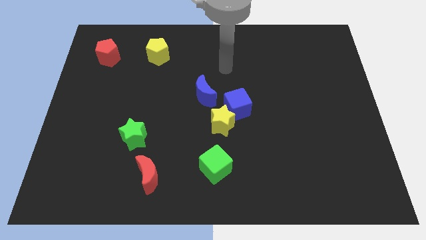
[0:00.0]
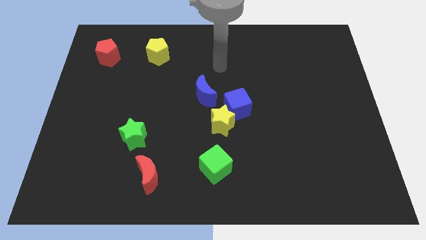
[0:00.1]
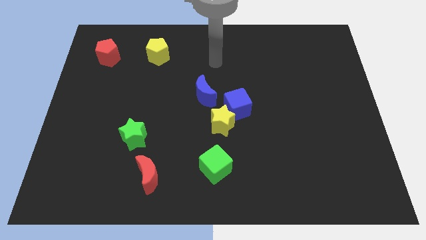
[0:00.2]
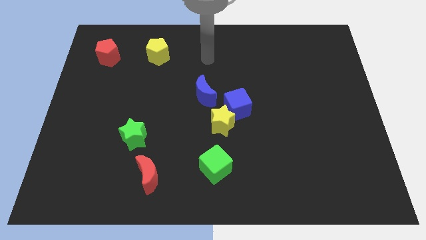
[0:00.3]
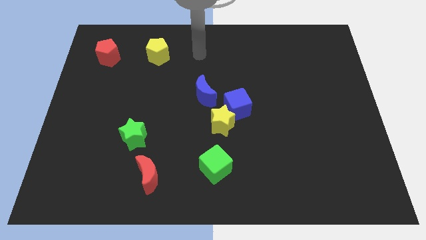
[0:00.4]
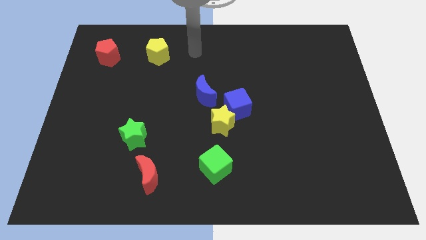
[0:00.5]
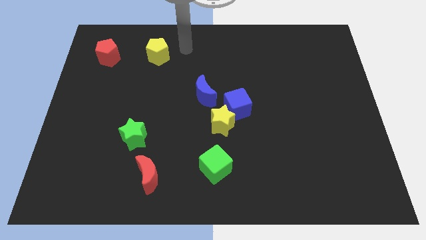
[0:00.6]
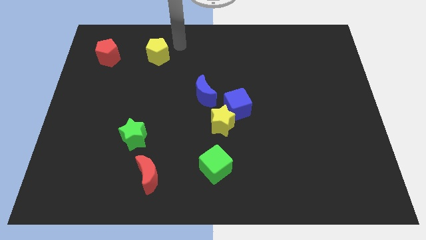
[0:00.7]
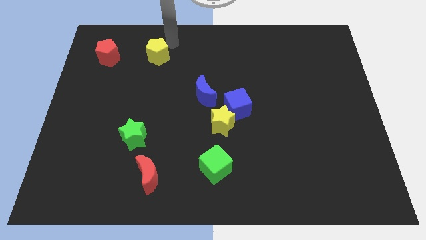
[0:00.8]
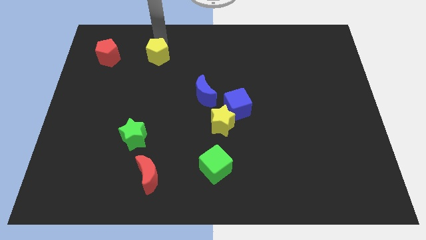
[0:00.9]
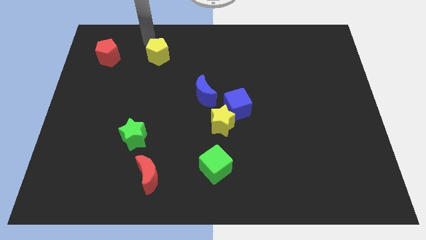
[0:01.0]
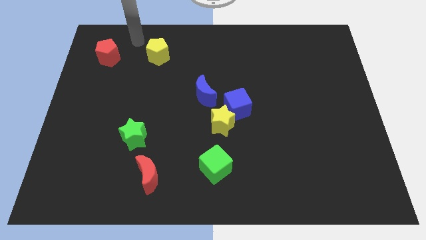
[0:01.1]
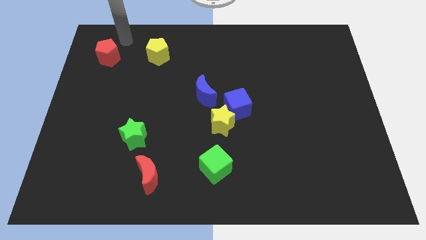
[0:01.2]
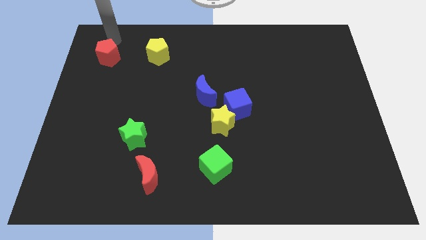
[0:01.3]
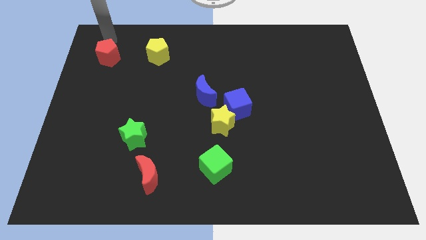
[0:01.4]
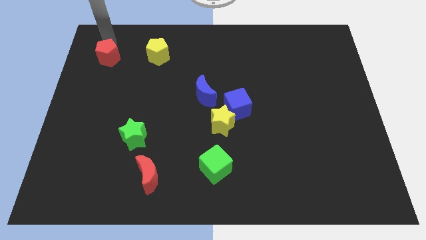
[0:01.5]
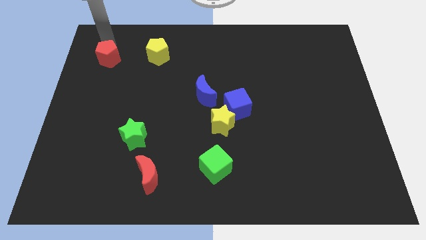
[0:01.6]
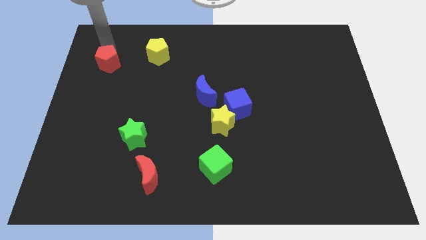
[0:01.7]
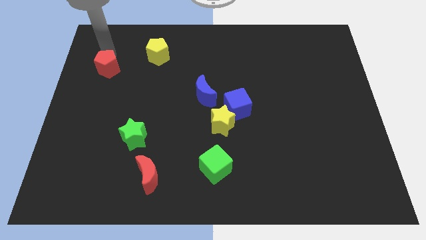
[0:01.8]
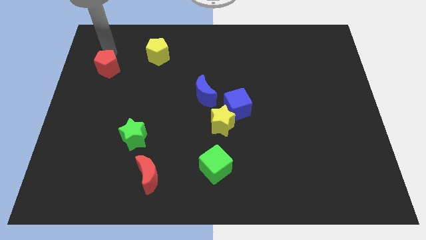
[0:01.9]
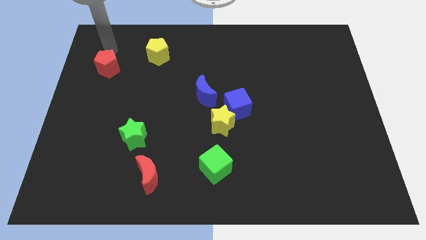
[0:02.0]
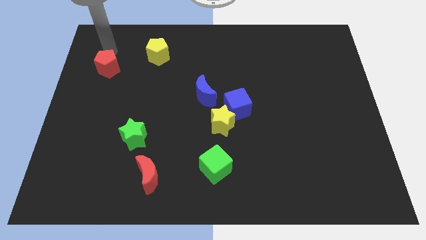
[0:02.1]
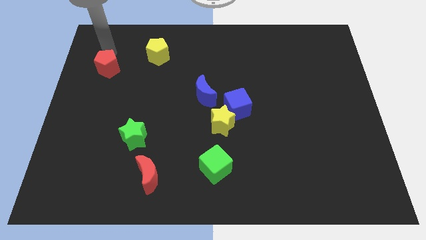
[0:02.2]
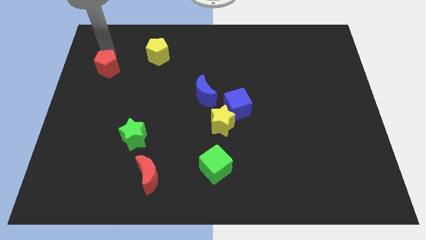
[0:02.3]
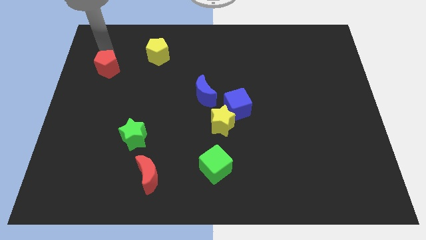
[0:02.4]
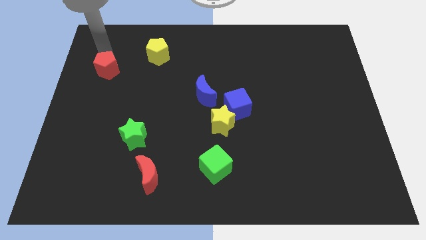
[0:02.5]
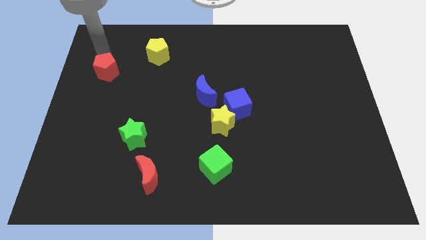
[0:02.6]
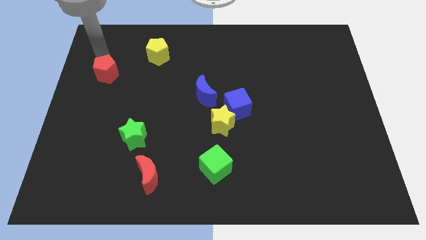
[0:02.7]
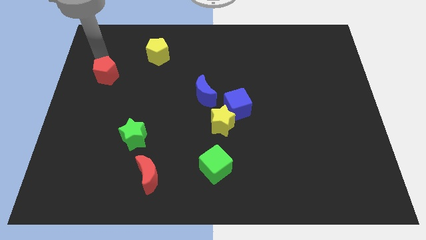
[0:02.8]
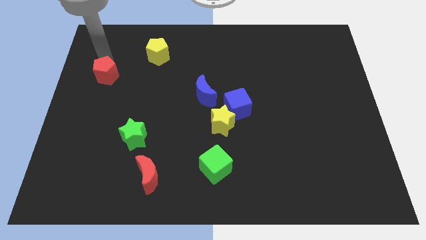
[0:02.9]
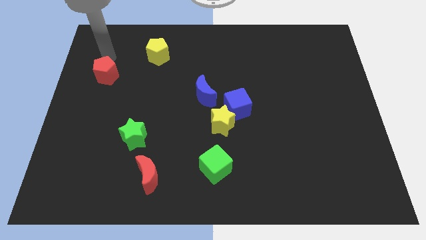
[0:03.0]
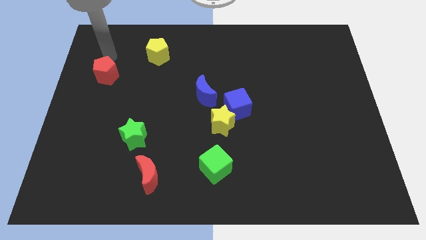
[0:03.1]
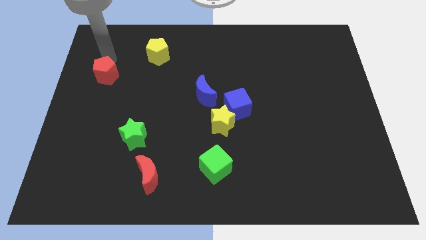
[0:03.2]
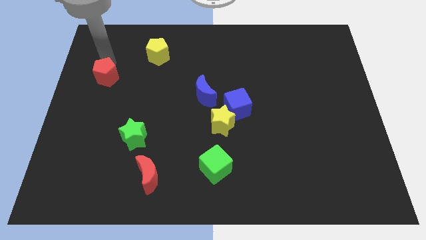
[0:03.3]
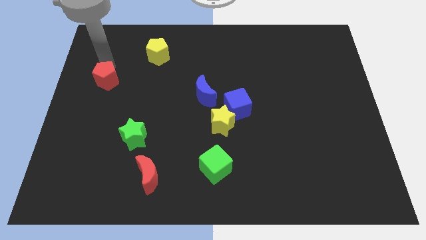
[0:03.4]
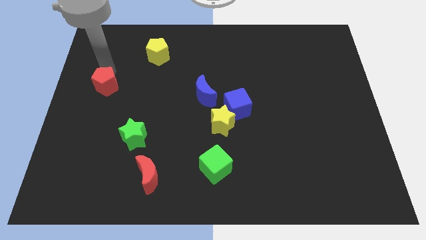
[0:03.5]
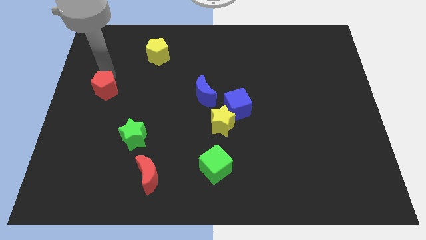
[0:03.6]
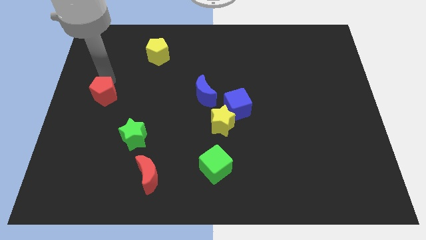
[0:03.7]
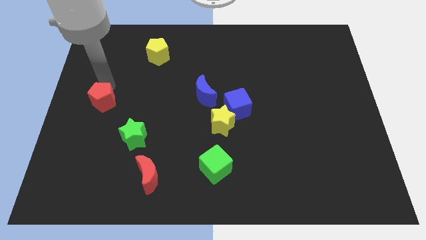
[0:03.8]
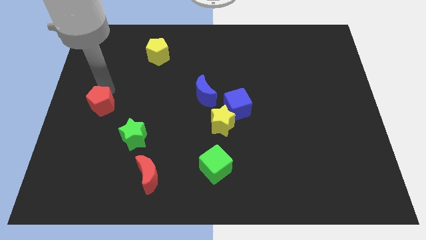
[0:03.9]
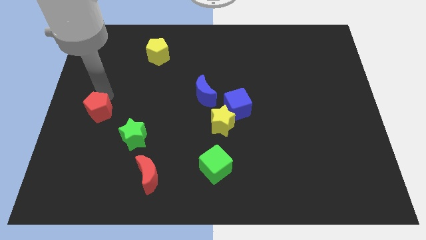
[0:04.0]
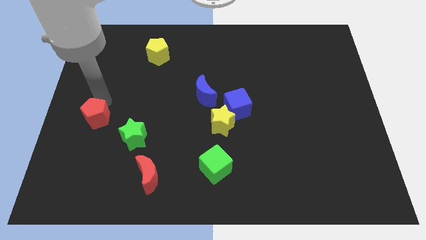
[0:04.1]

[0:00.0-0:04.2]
slide the red pentagon downwards

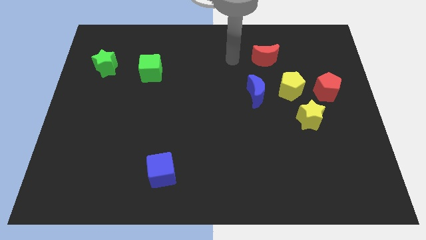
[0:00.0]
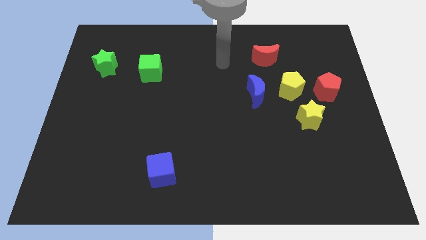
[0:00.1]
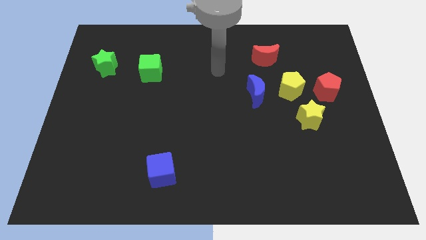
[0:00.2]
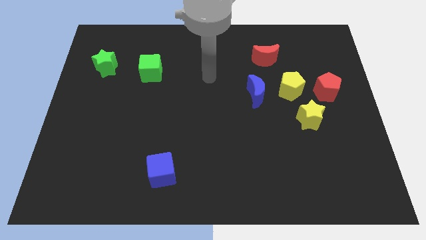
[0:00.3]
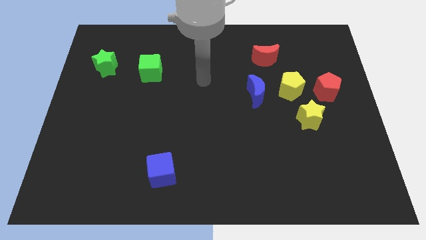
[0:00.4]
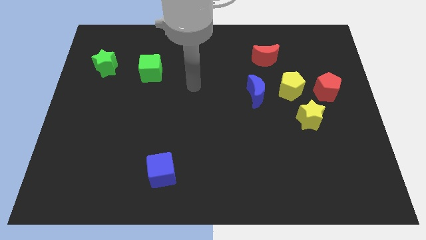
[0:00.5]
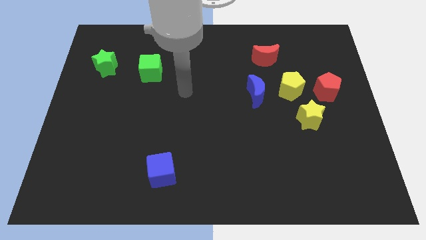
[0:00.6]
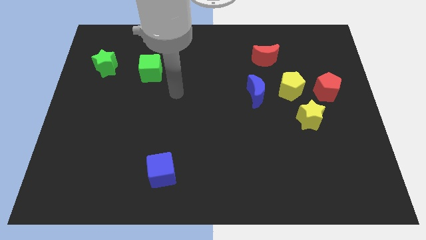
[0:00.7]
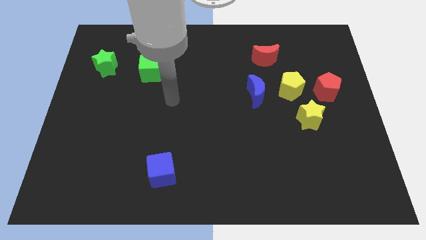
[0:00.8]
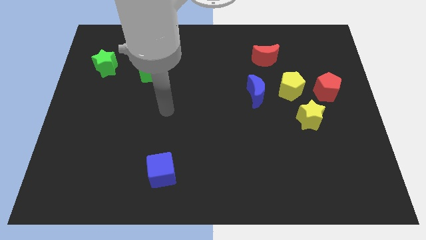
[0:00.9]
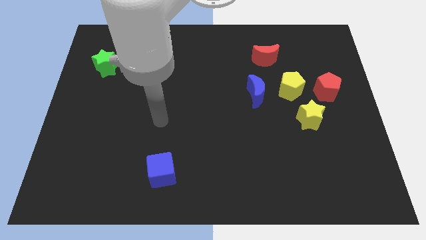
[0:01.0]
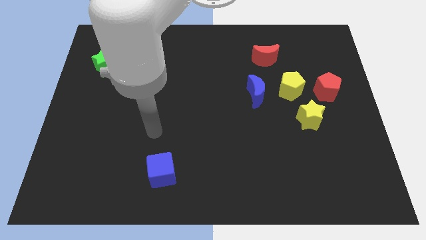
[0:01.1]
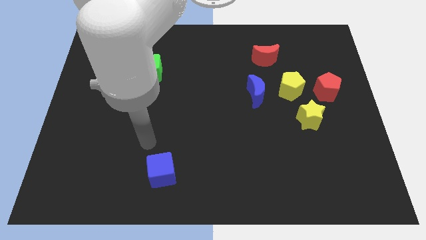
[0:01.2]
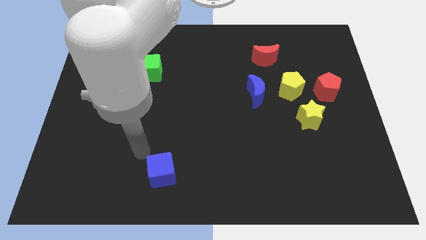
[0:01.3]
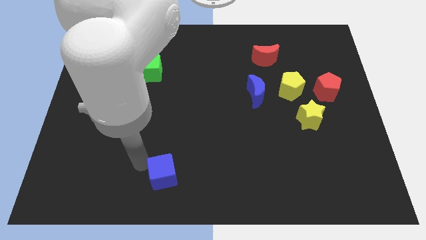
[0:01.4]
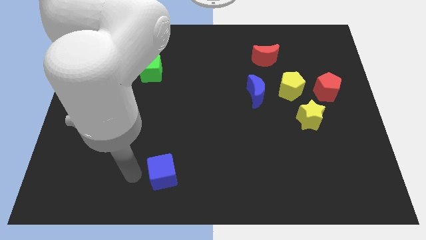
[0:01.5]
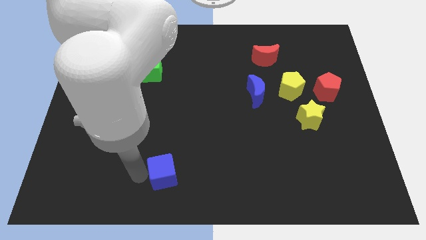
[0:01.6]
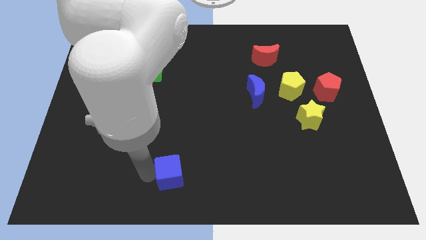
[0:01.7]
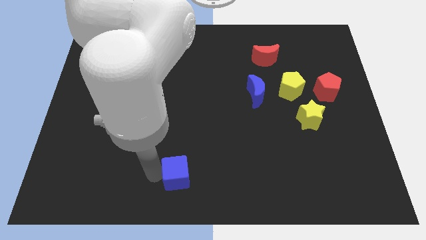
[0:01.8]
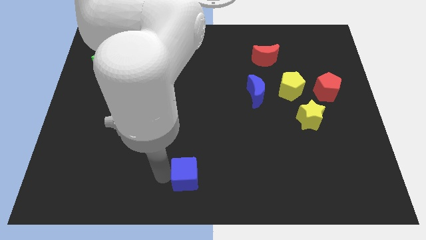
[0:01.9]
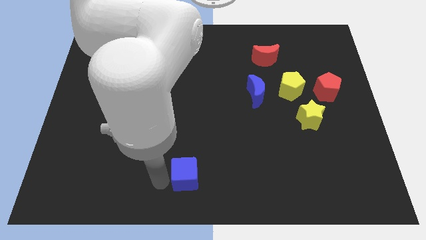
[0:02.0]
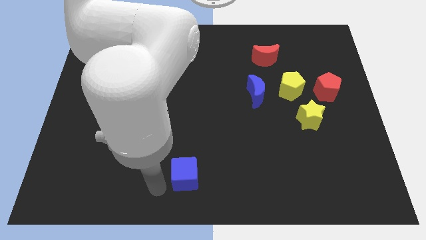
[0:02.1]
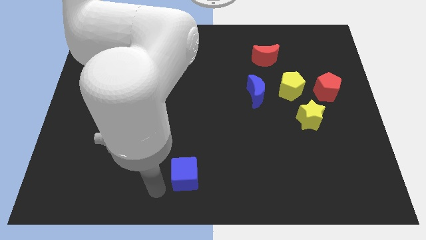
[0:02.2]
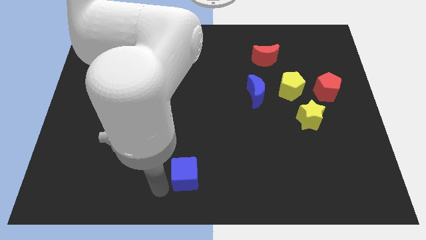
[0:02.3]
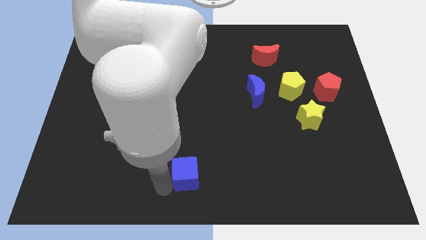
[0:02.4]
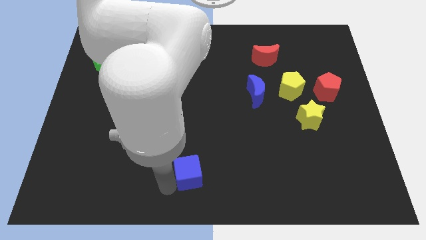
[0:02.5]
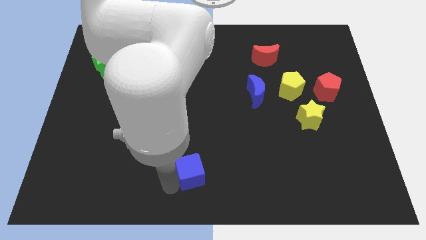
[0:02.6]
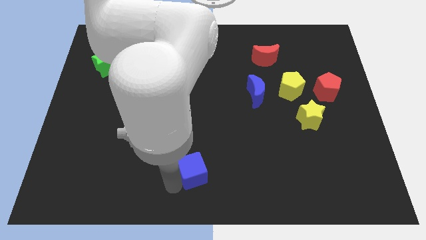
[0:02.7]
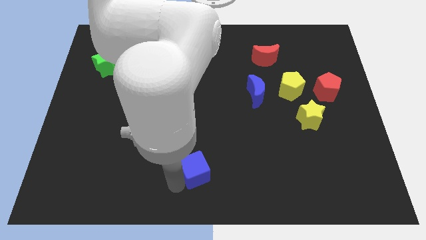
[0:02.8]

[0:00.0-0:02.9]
slightly slide the blue cube to the right

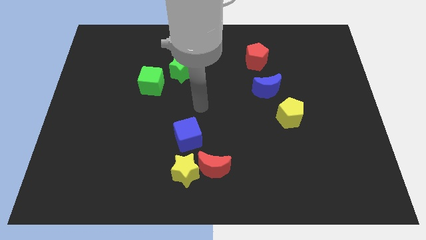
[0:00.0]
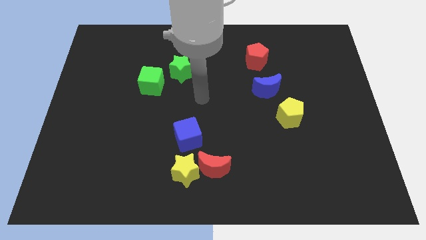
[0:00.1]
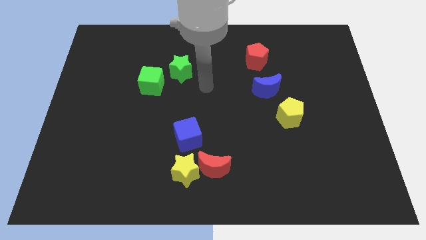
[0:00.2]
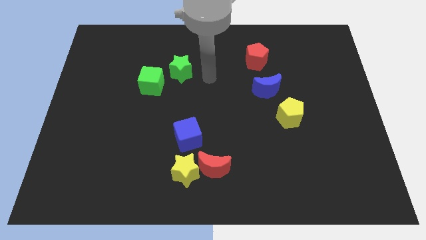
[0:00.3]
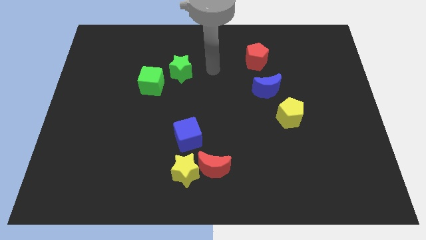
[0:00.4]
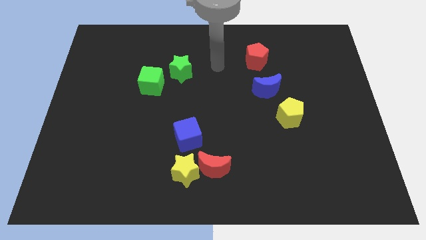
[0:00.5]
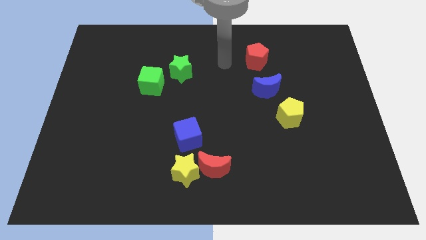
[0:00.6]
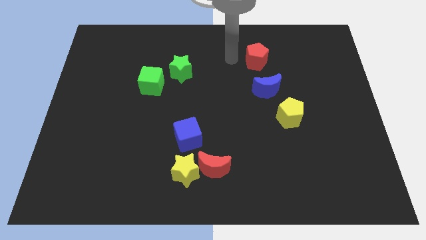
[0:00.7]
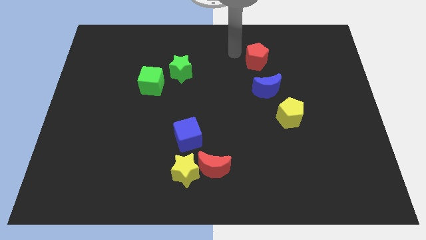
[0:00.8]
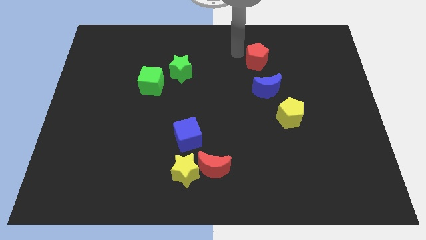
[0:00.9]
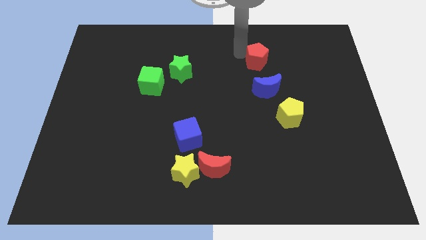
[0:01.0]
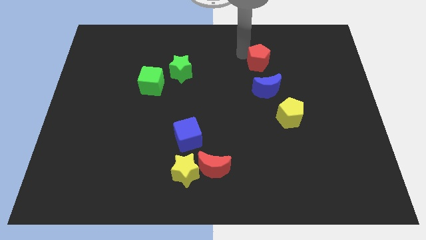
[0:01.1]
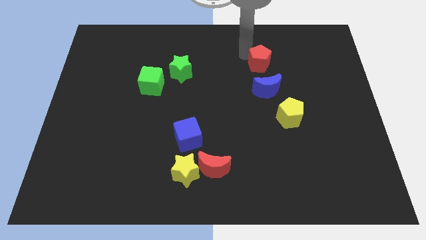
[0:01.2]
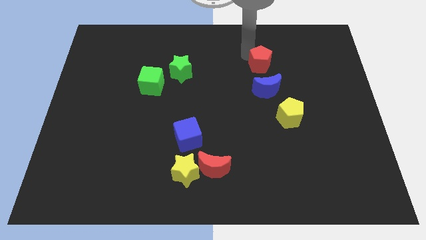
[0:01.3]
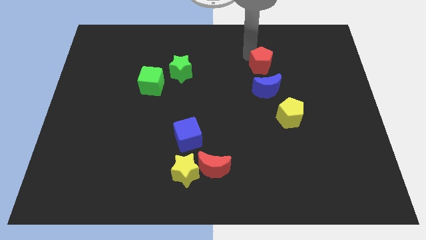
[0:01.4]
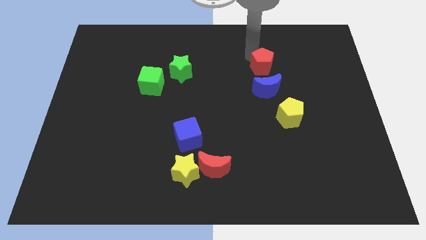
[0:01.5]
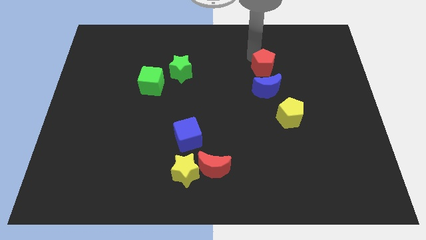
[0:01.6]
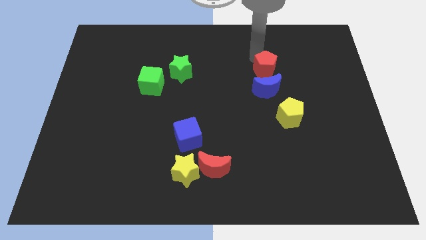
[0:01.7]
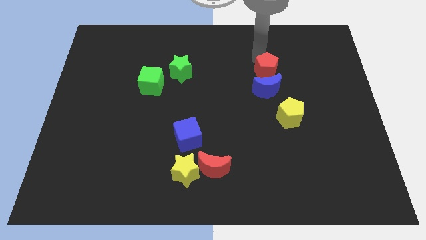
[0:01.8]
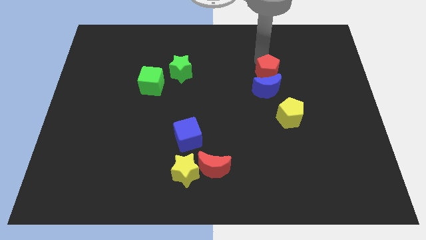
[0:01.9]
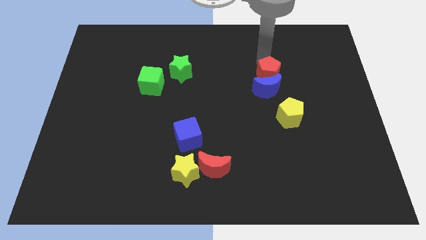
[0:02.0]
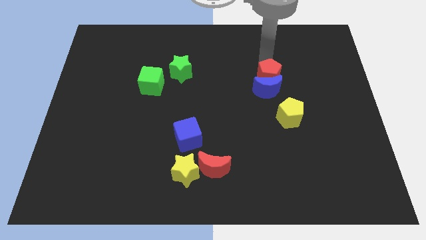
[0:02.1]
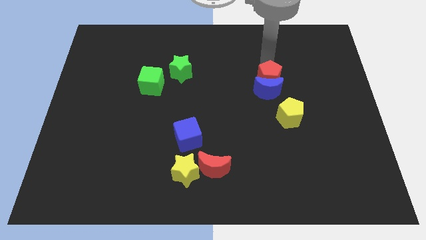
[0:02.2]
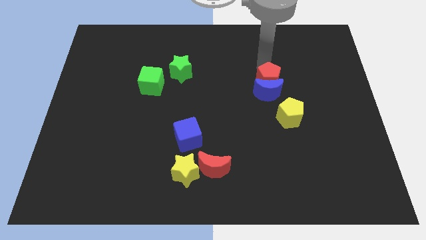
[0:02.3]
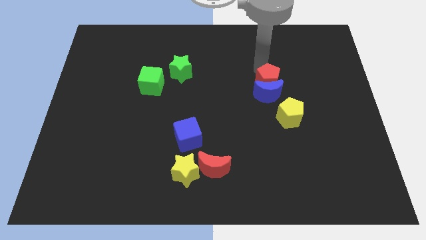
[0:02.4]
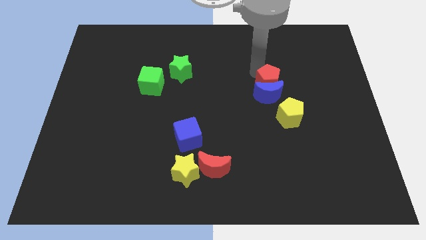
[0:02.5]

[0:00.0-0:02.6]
move the red pentagon downwards and then to the right a little
